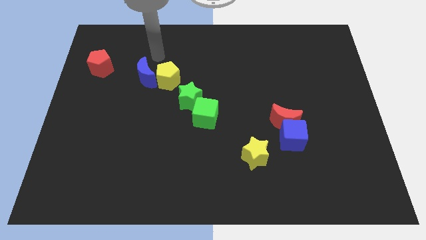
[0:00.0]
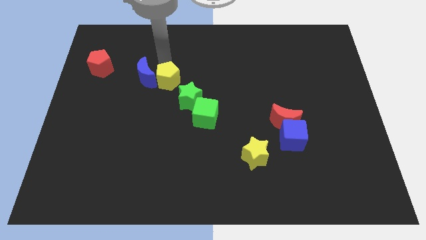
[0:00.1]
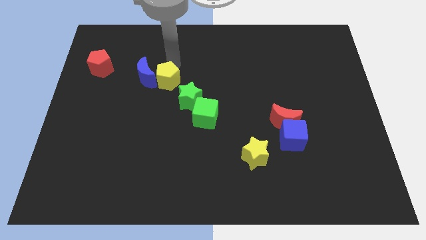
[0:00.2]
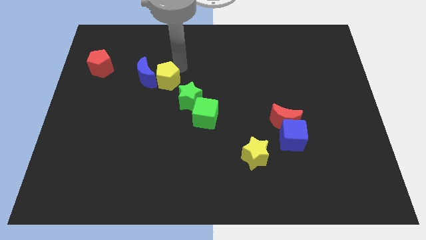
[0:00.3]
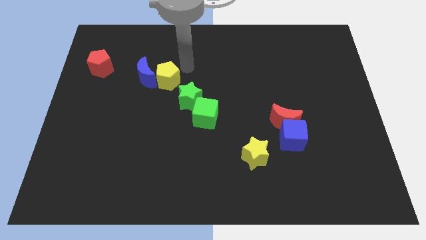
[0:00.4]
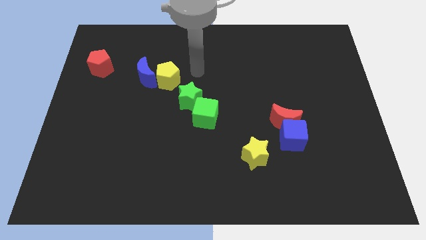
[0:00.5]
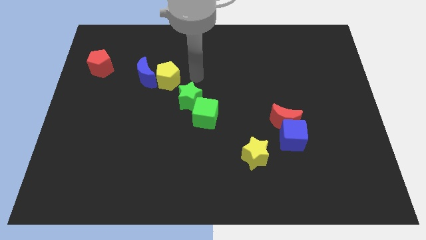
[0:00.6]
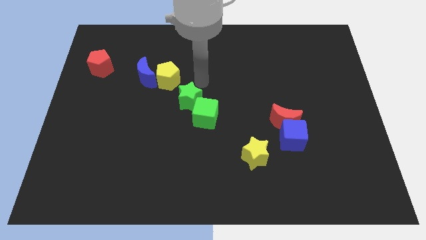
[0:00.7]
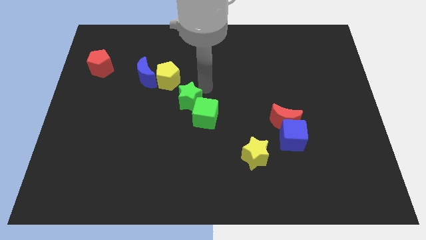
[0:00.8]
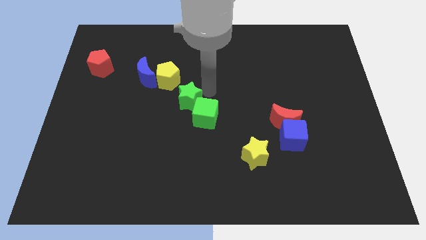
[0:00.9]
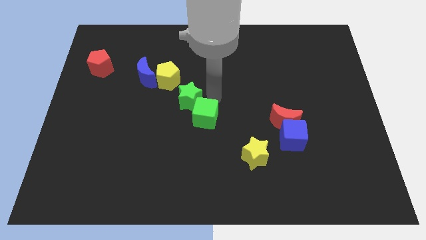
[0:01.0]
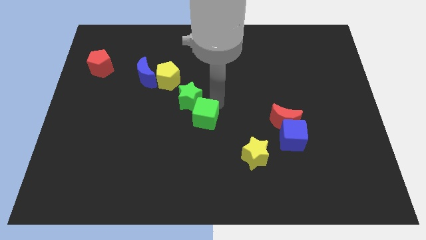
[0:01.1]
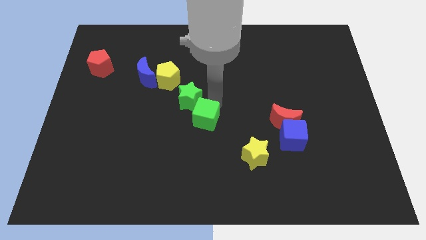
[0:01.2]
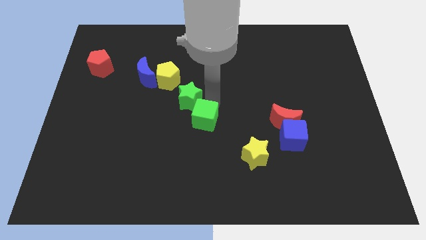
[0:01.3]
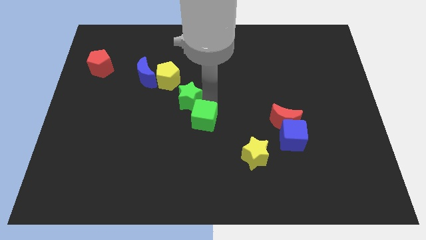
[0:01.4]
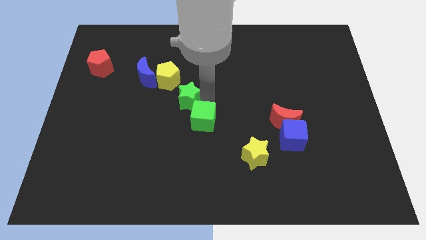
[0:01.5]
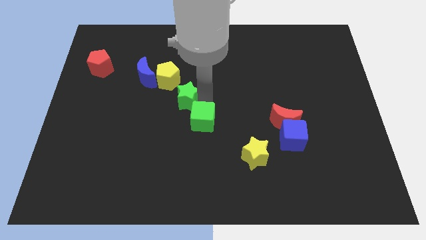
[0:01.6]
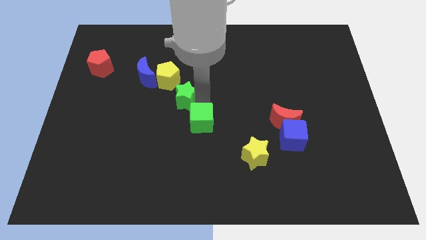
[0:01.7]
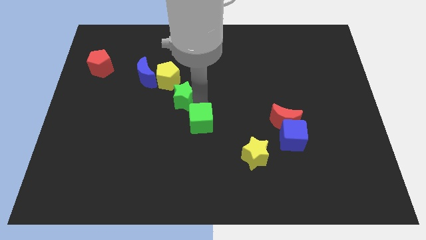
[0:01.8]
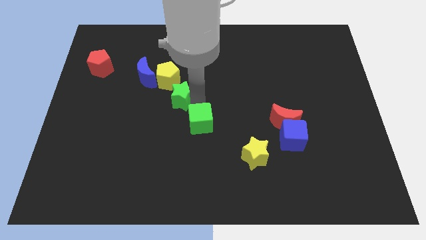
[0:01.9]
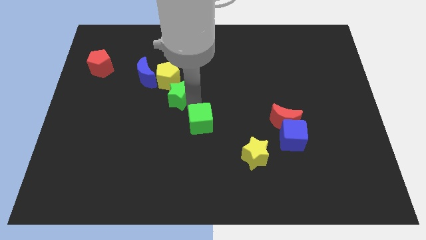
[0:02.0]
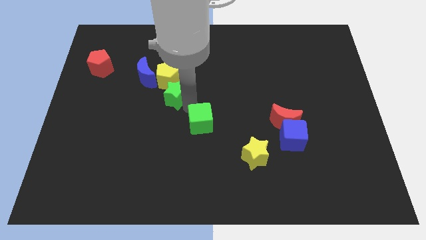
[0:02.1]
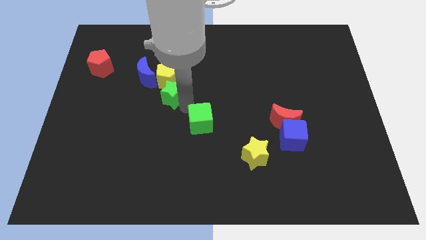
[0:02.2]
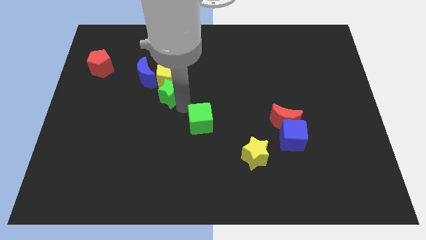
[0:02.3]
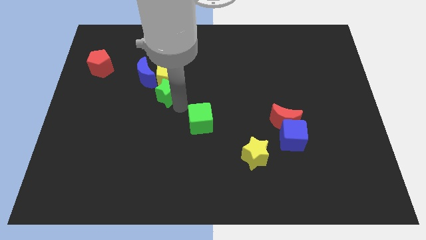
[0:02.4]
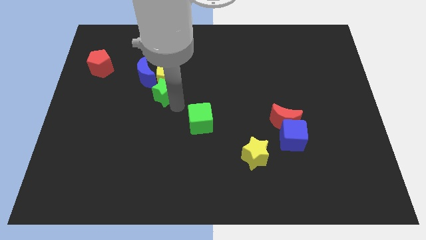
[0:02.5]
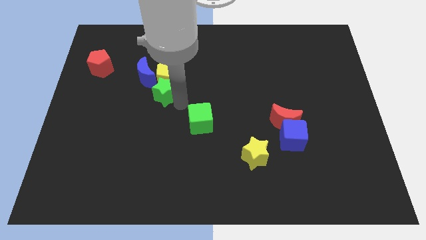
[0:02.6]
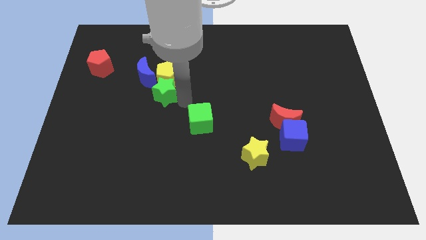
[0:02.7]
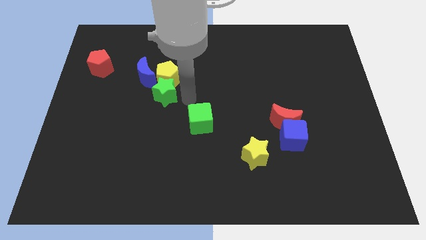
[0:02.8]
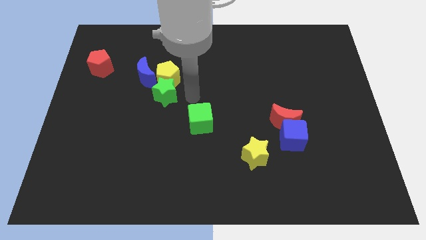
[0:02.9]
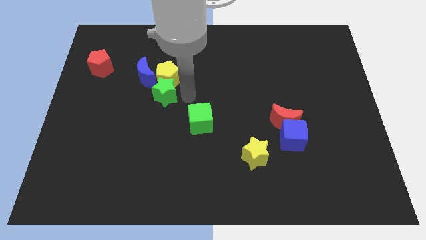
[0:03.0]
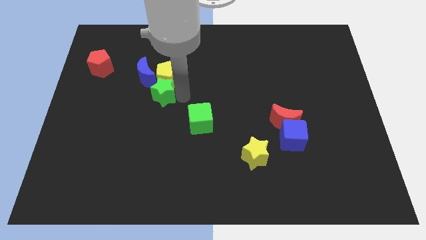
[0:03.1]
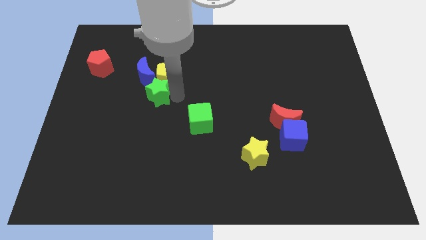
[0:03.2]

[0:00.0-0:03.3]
push the green star left a bit

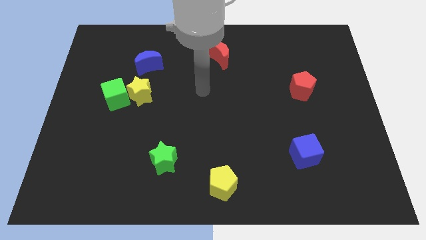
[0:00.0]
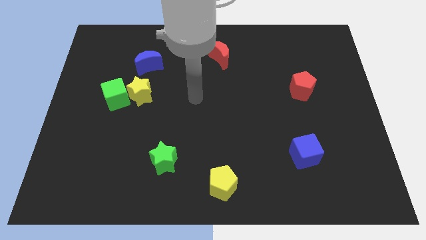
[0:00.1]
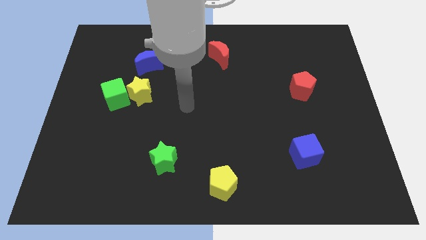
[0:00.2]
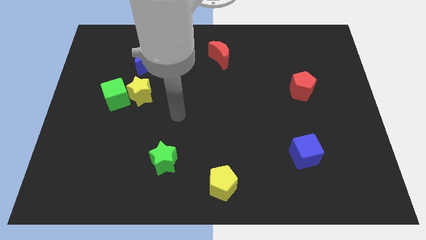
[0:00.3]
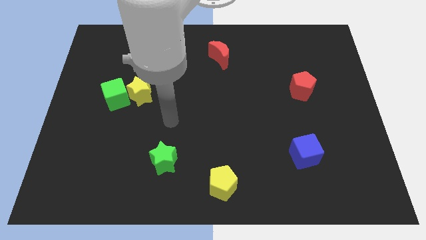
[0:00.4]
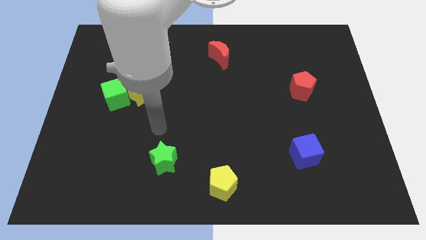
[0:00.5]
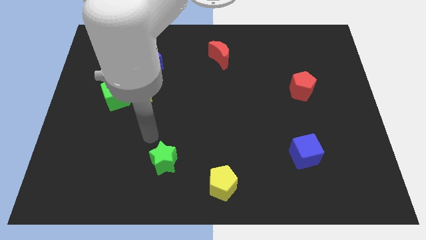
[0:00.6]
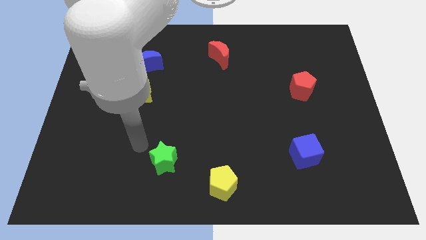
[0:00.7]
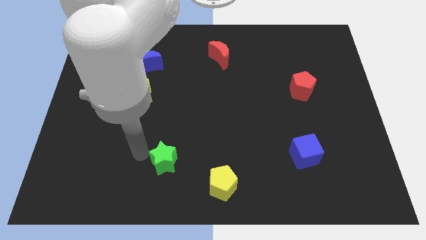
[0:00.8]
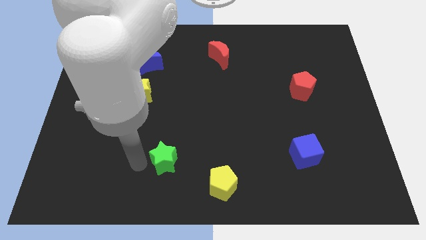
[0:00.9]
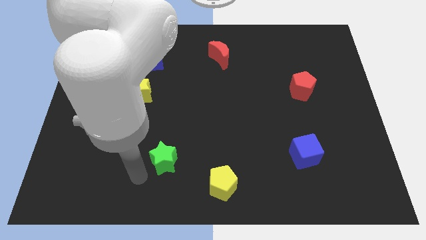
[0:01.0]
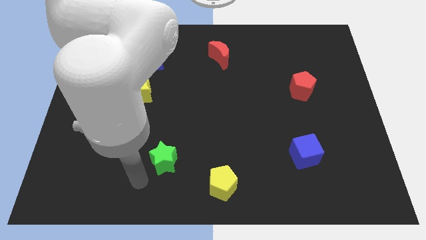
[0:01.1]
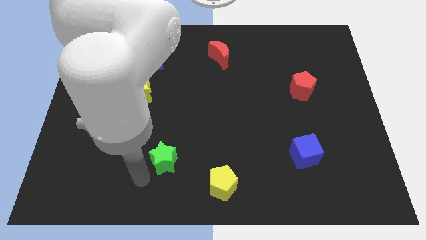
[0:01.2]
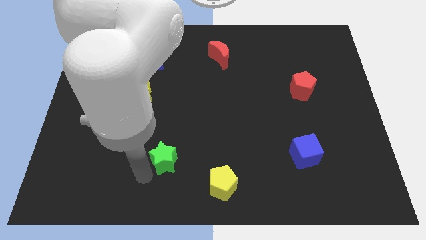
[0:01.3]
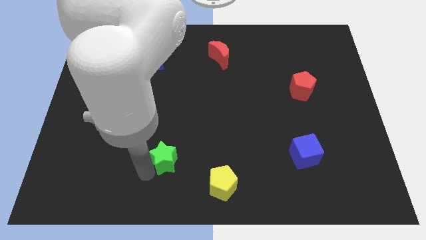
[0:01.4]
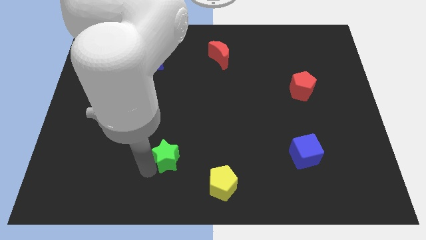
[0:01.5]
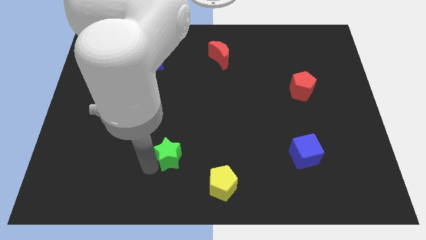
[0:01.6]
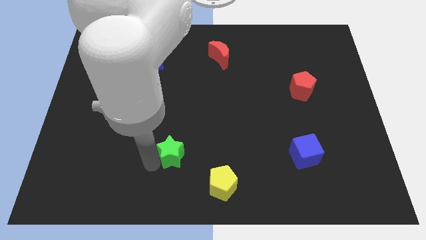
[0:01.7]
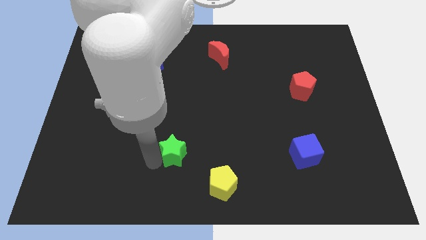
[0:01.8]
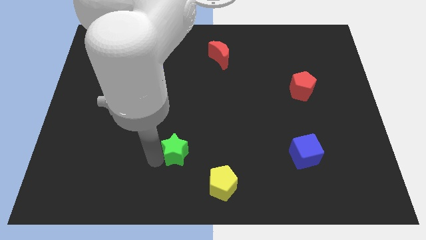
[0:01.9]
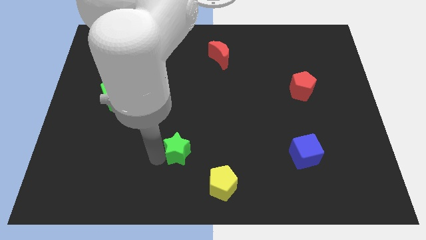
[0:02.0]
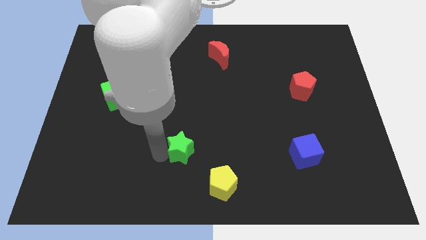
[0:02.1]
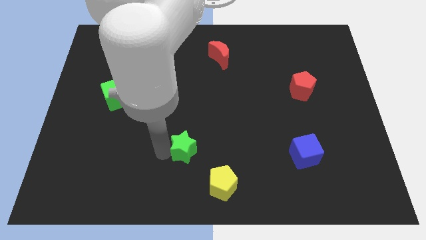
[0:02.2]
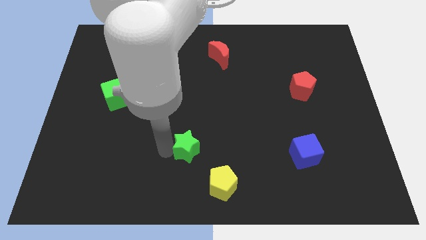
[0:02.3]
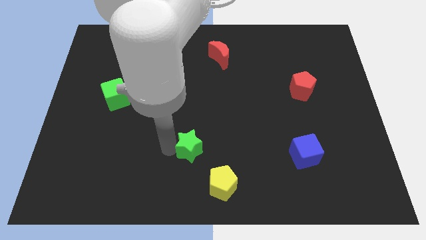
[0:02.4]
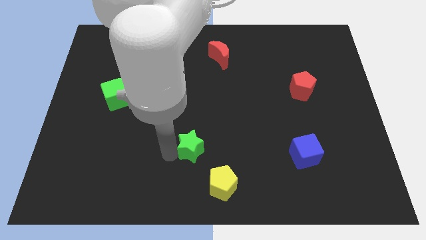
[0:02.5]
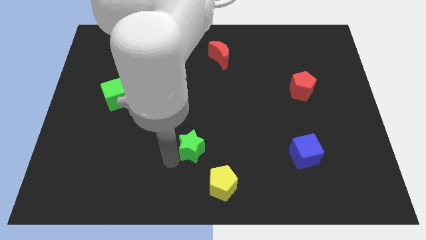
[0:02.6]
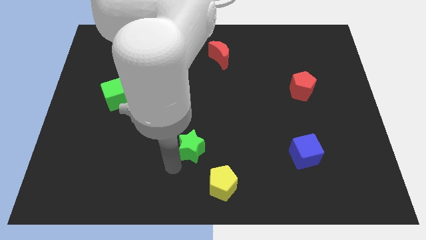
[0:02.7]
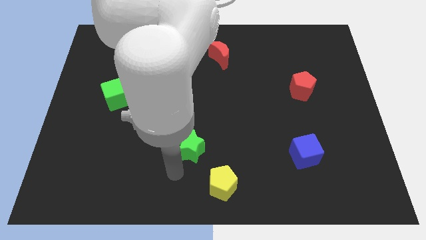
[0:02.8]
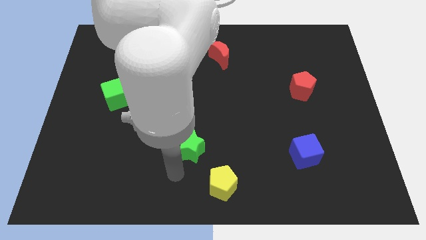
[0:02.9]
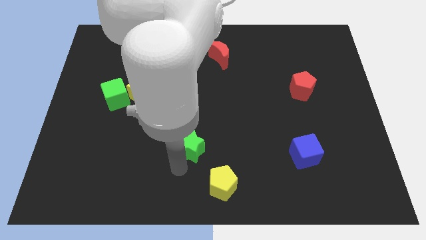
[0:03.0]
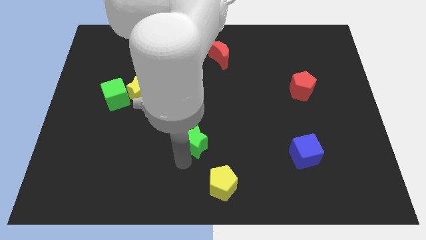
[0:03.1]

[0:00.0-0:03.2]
push the green star up and right somewhat

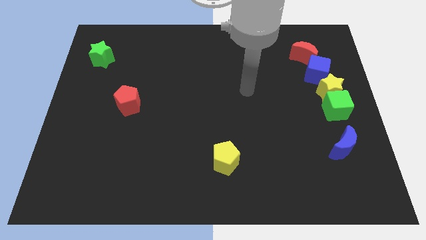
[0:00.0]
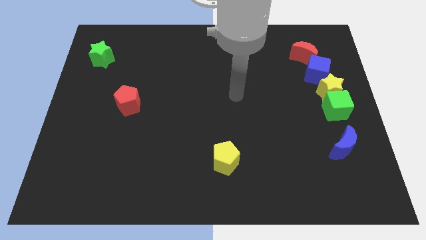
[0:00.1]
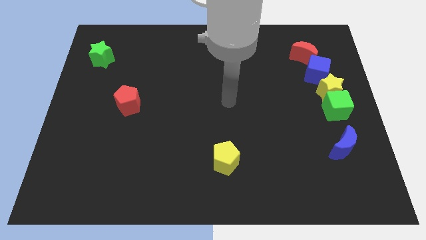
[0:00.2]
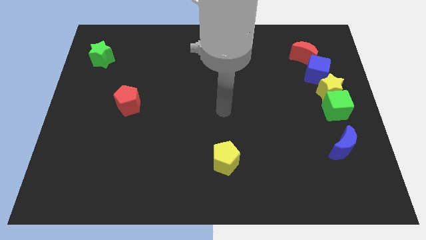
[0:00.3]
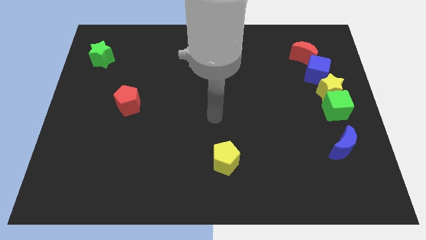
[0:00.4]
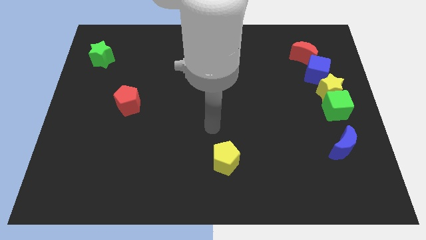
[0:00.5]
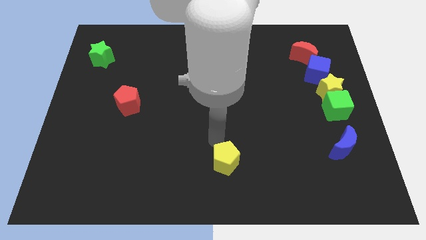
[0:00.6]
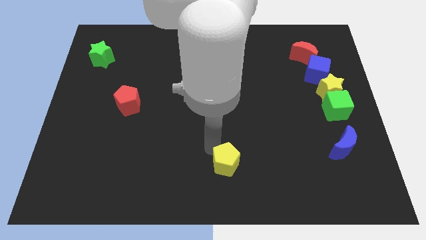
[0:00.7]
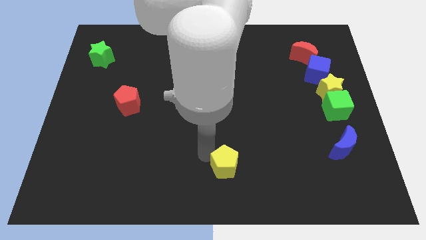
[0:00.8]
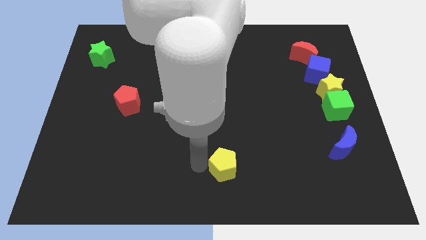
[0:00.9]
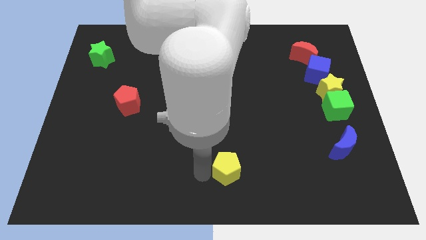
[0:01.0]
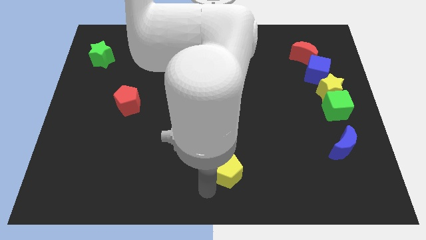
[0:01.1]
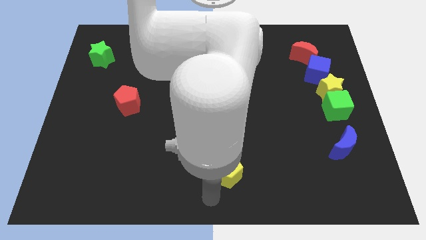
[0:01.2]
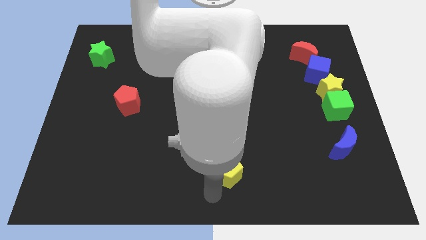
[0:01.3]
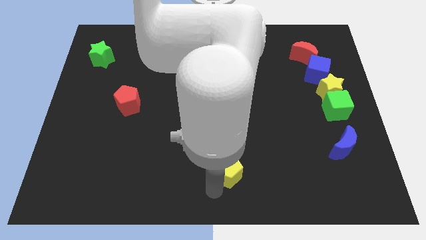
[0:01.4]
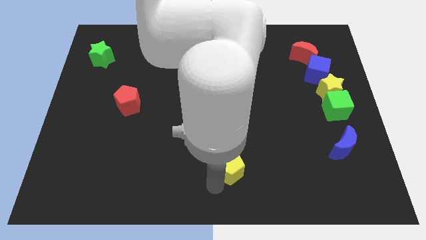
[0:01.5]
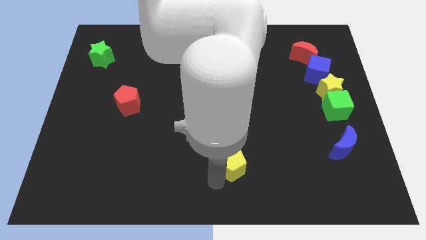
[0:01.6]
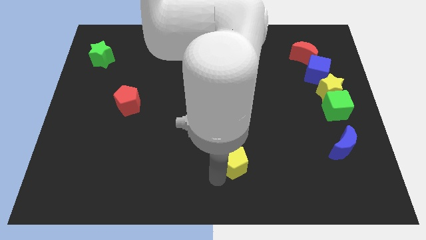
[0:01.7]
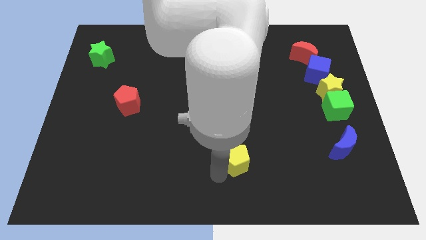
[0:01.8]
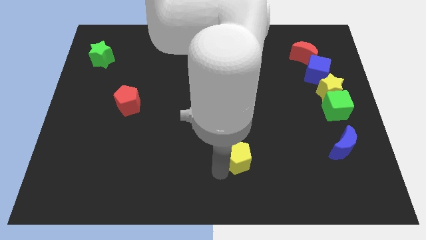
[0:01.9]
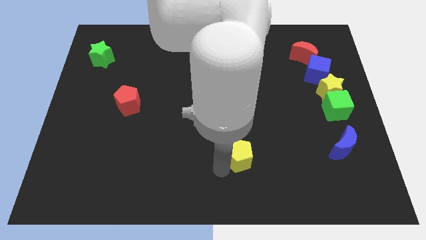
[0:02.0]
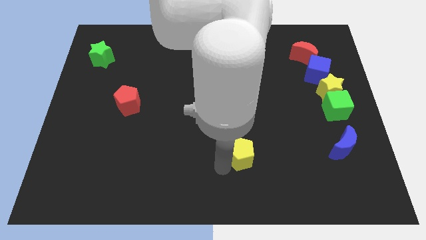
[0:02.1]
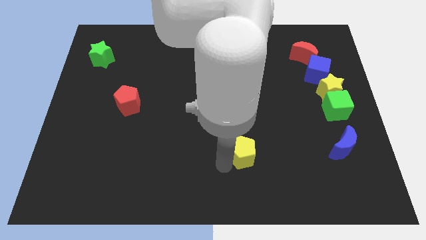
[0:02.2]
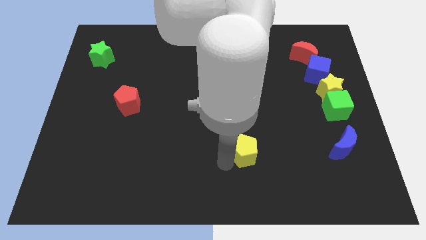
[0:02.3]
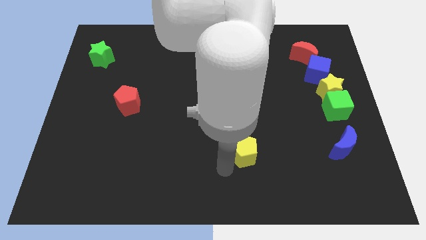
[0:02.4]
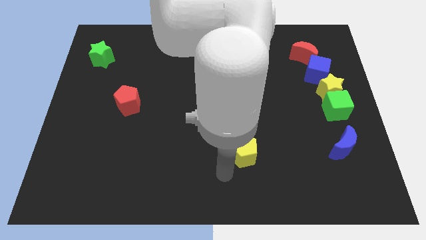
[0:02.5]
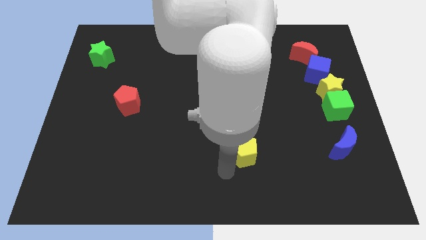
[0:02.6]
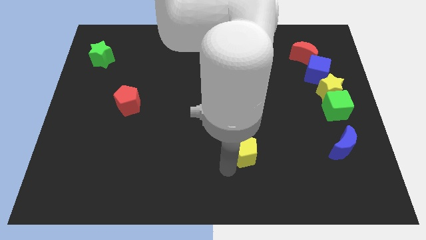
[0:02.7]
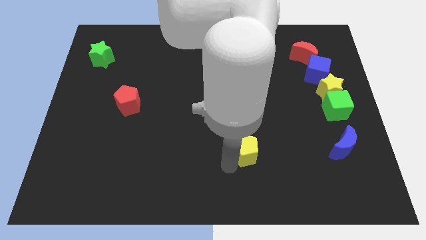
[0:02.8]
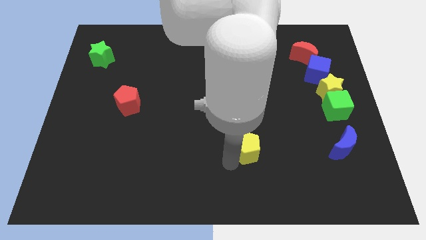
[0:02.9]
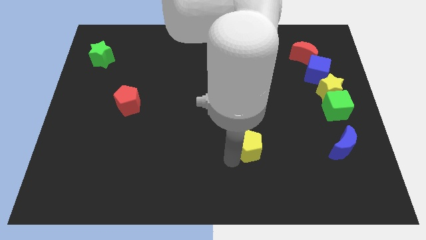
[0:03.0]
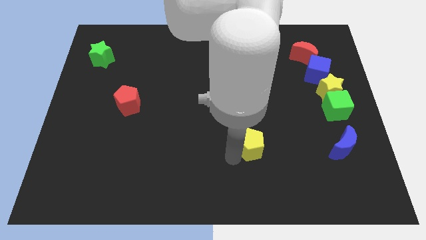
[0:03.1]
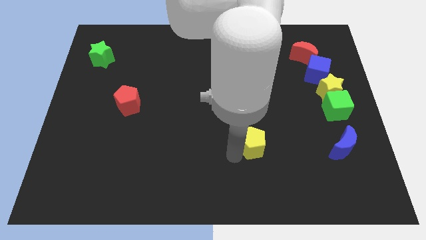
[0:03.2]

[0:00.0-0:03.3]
push the yellow pentagon a bit upwards and then to the right
